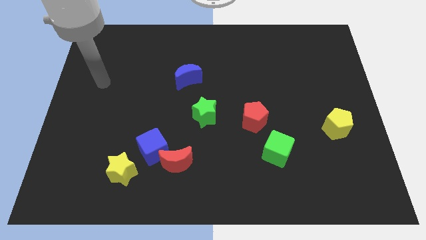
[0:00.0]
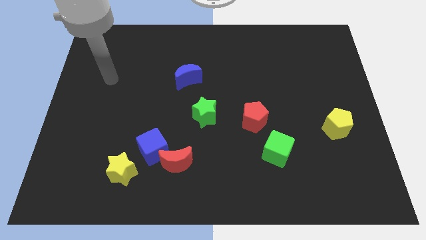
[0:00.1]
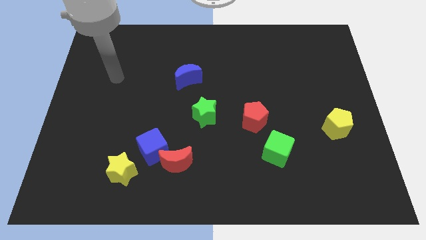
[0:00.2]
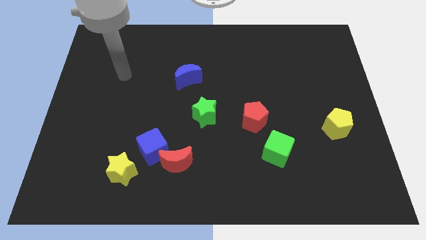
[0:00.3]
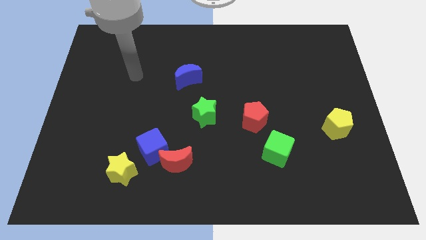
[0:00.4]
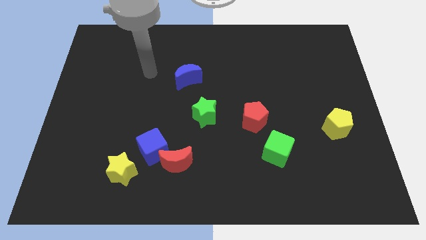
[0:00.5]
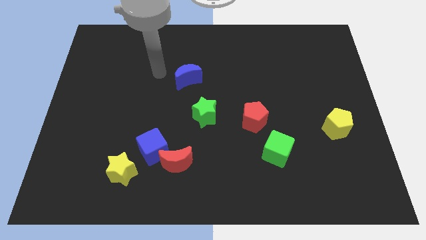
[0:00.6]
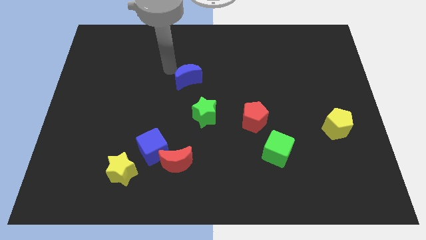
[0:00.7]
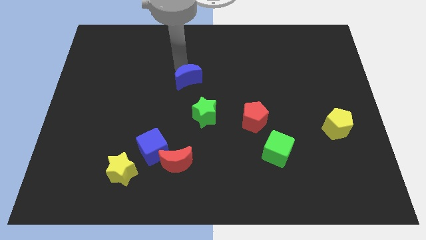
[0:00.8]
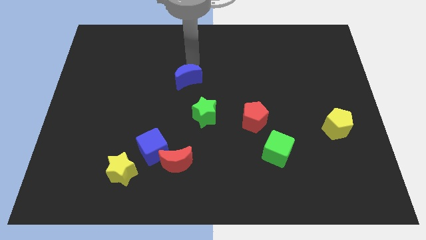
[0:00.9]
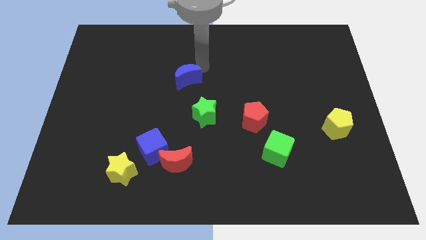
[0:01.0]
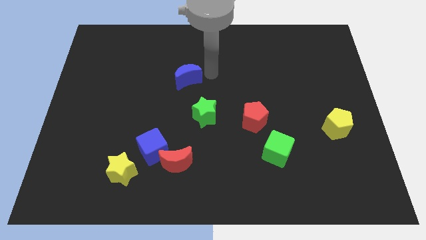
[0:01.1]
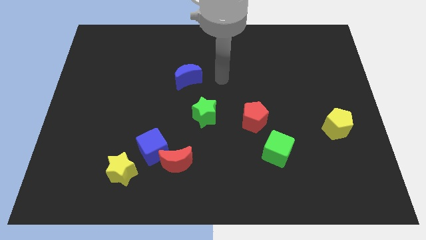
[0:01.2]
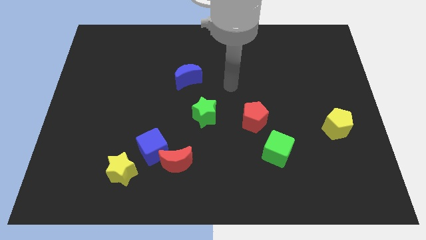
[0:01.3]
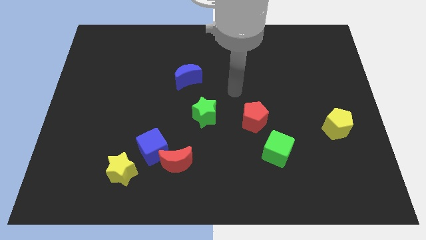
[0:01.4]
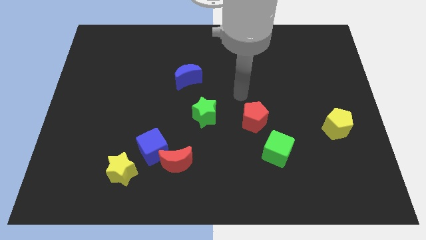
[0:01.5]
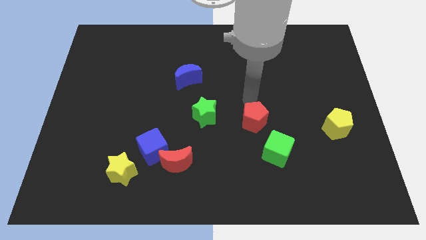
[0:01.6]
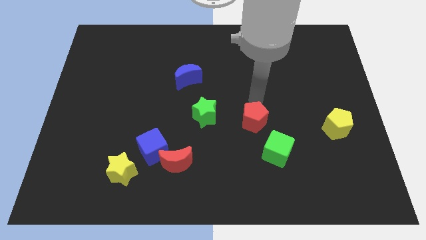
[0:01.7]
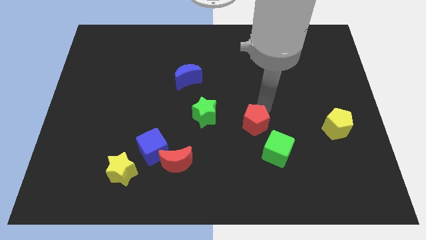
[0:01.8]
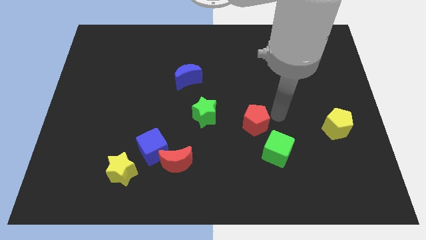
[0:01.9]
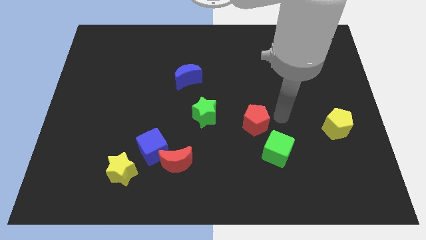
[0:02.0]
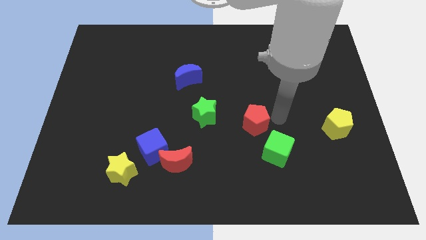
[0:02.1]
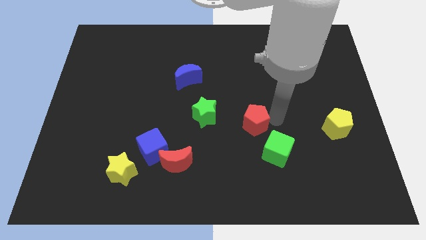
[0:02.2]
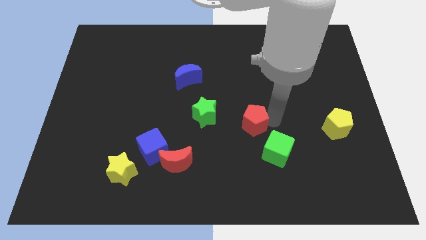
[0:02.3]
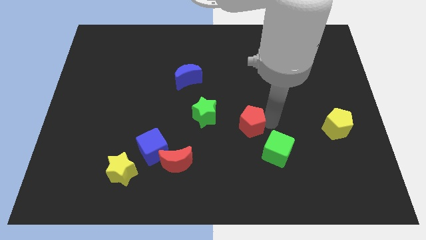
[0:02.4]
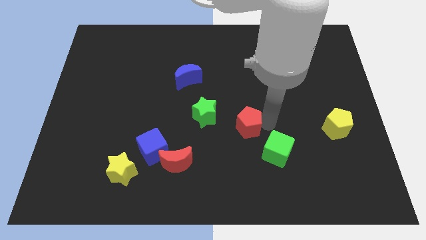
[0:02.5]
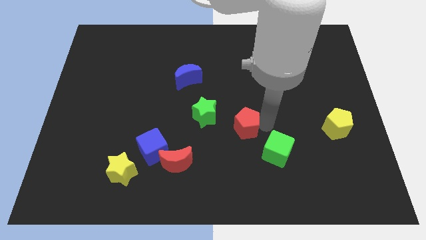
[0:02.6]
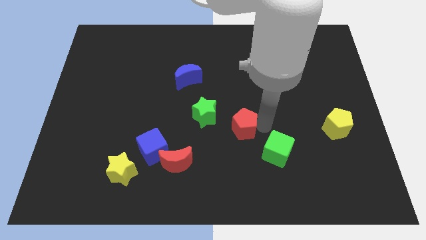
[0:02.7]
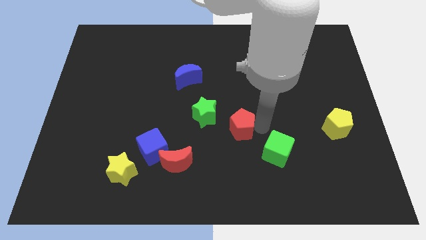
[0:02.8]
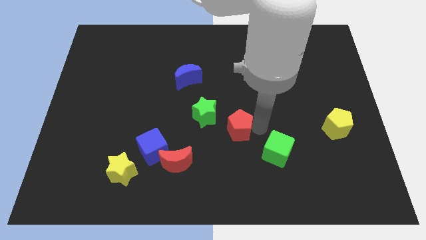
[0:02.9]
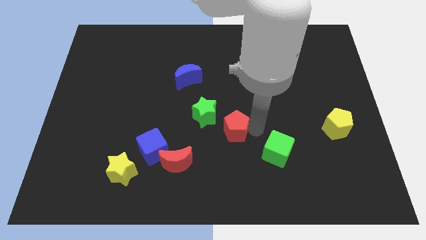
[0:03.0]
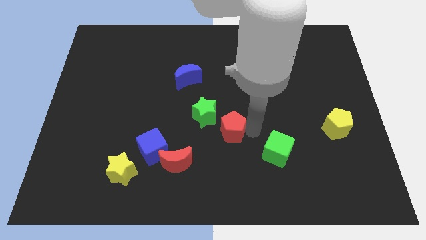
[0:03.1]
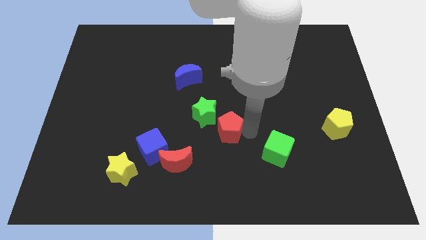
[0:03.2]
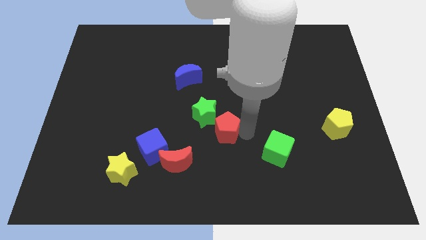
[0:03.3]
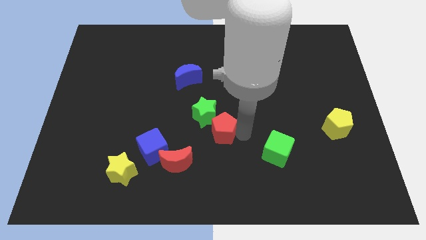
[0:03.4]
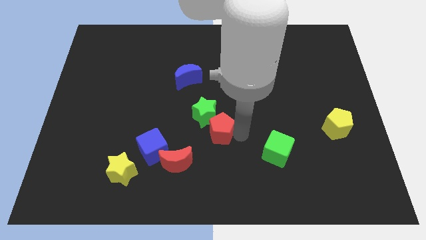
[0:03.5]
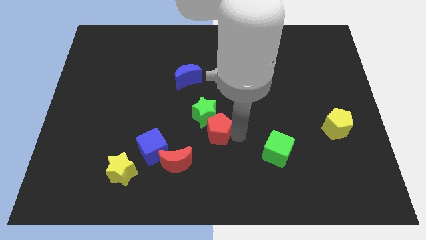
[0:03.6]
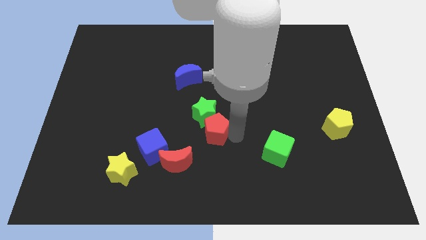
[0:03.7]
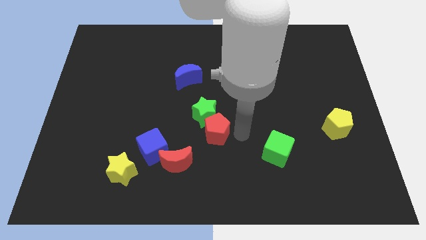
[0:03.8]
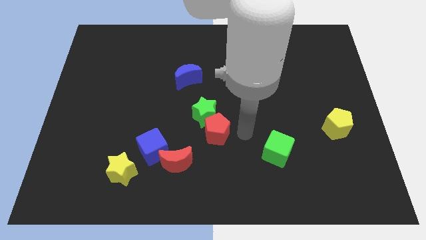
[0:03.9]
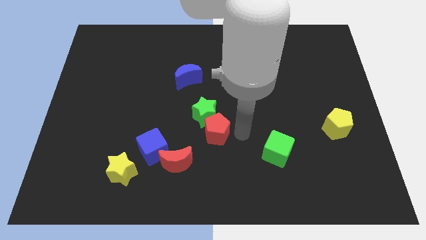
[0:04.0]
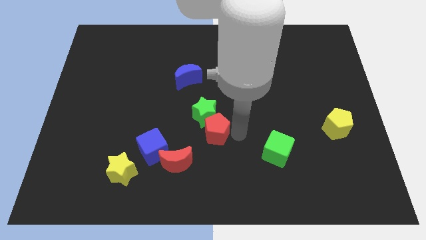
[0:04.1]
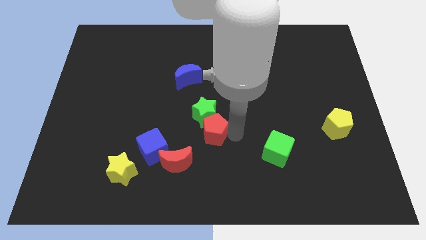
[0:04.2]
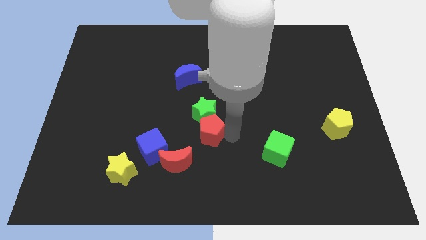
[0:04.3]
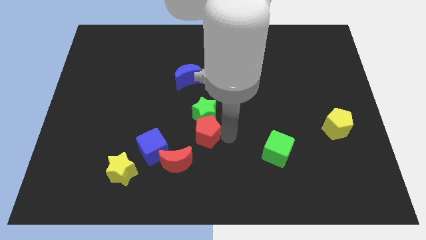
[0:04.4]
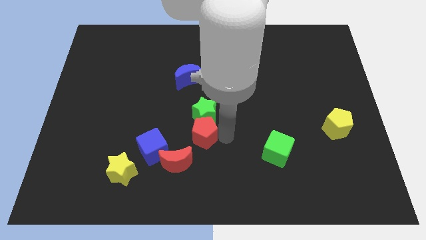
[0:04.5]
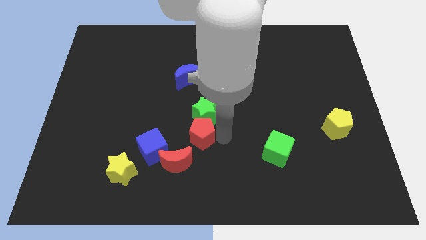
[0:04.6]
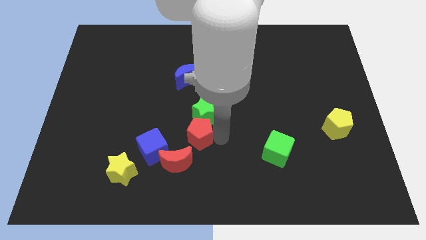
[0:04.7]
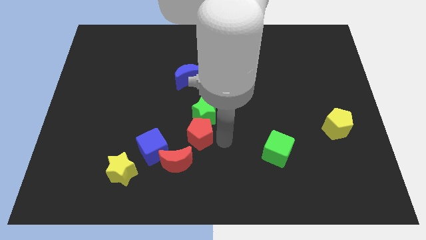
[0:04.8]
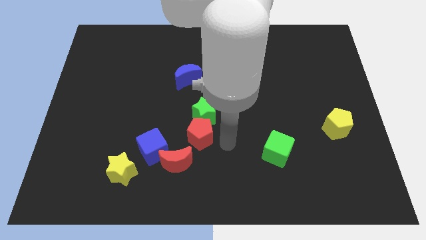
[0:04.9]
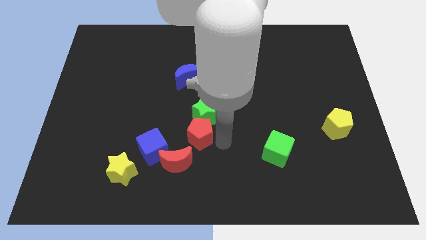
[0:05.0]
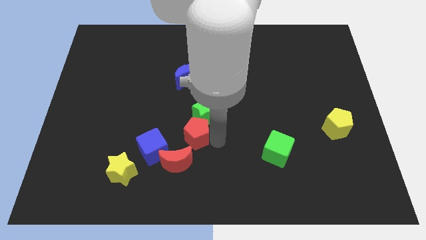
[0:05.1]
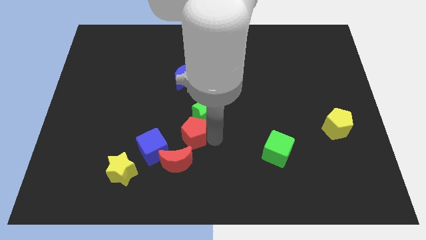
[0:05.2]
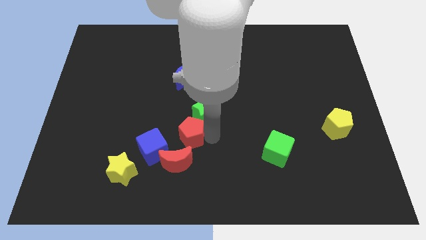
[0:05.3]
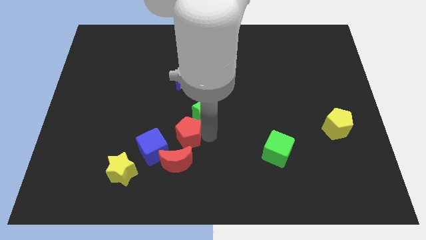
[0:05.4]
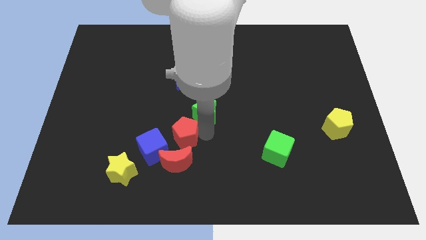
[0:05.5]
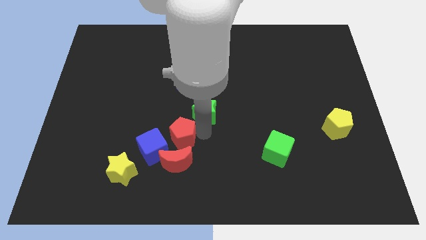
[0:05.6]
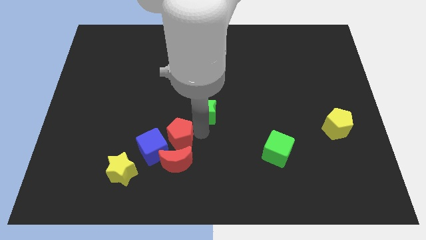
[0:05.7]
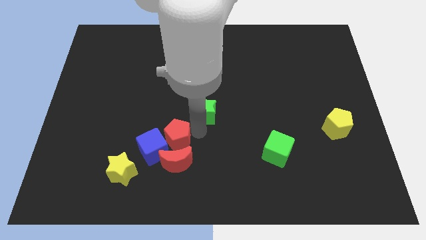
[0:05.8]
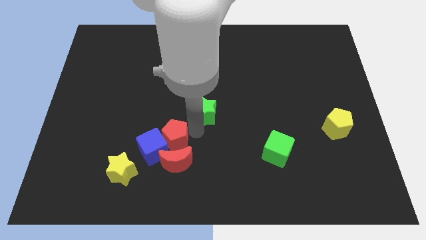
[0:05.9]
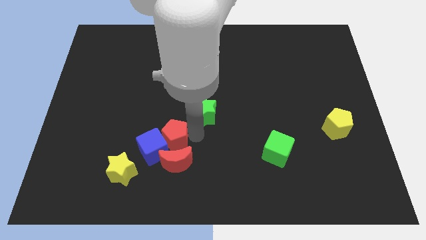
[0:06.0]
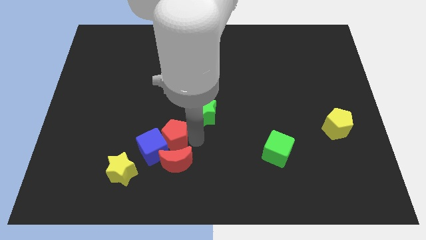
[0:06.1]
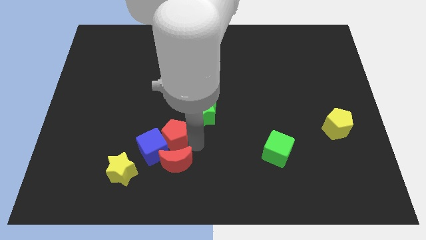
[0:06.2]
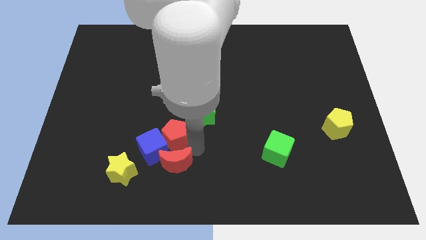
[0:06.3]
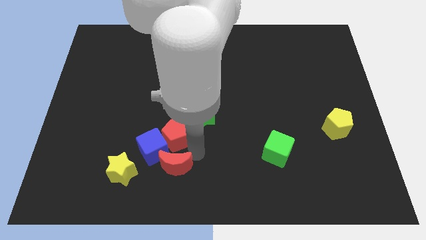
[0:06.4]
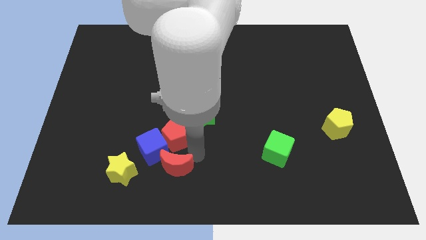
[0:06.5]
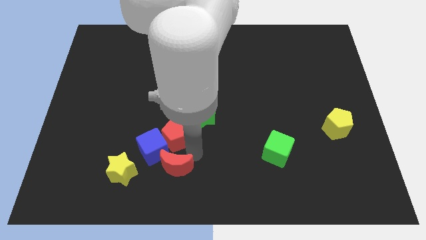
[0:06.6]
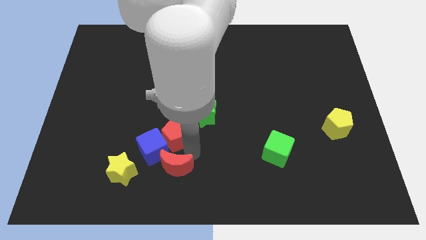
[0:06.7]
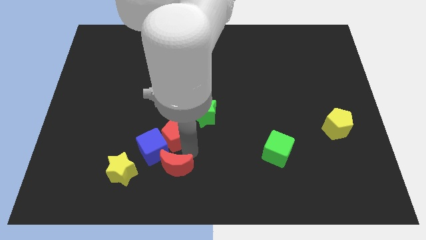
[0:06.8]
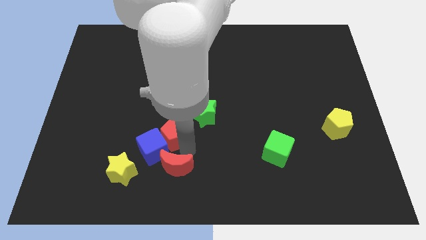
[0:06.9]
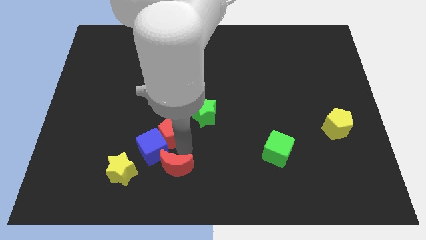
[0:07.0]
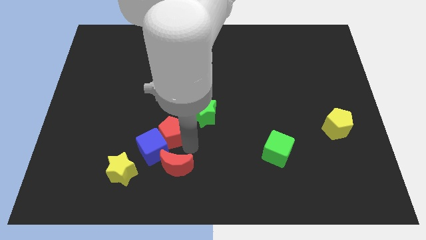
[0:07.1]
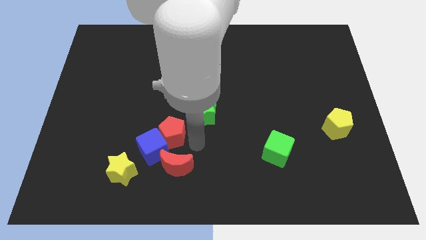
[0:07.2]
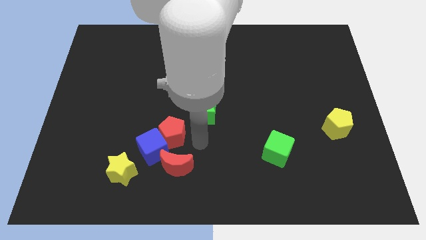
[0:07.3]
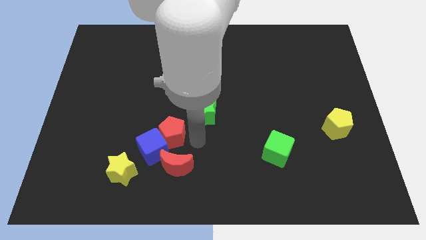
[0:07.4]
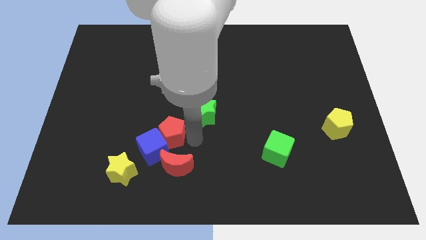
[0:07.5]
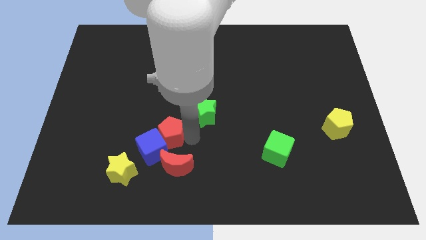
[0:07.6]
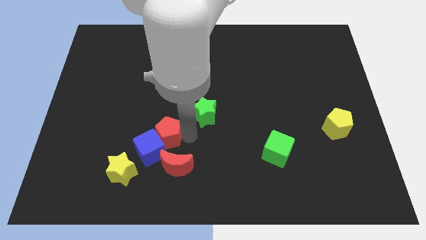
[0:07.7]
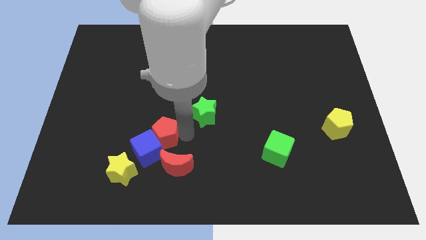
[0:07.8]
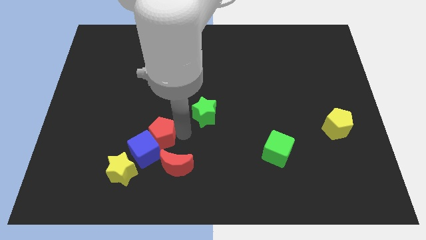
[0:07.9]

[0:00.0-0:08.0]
slide the red pentagon to the left
